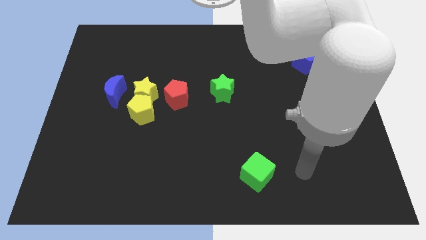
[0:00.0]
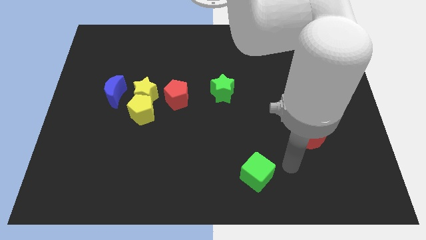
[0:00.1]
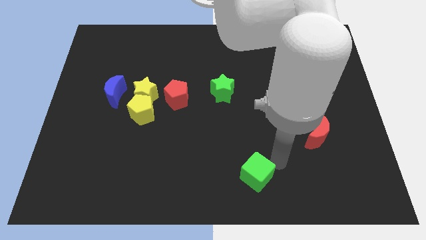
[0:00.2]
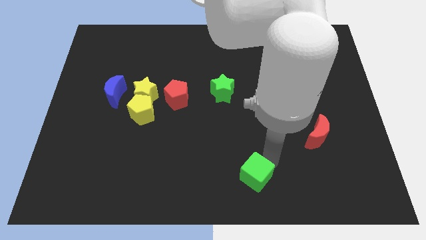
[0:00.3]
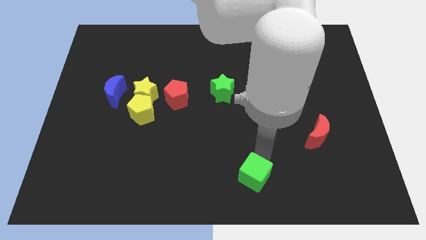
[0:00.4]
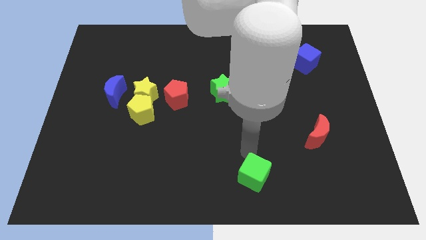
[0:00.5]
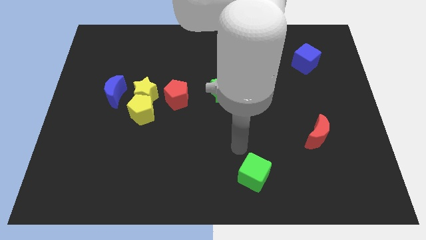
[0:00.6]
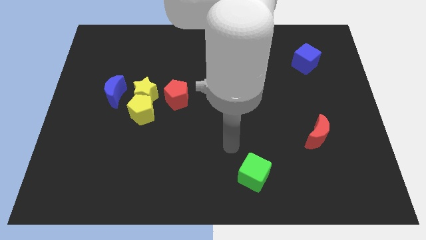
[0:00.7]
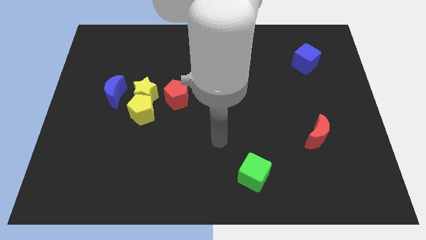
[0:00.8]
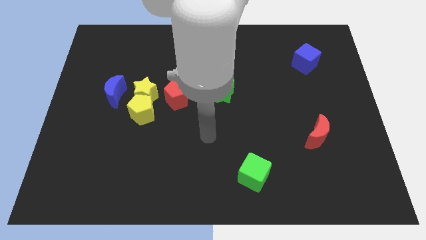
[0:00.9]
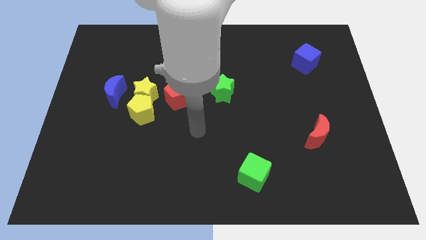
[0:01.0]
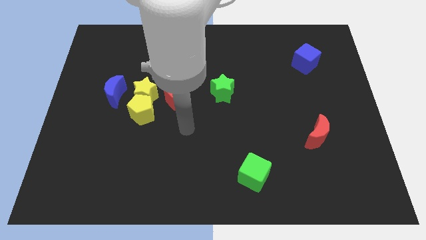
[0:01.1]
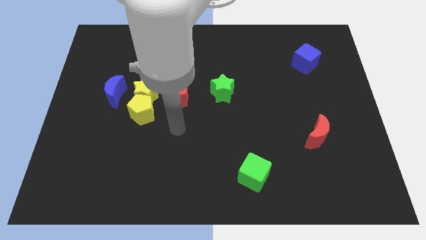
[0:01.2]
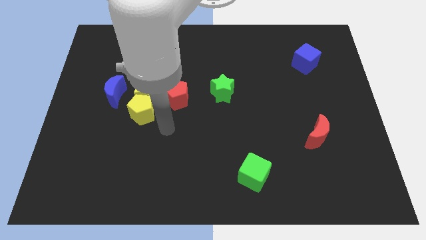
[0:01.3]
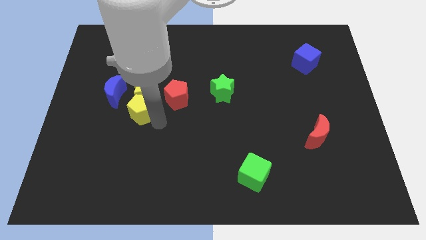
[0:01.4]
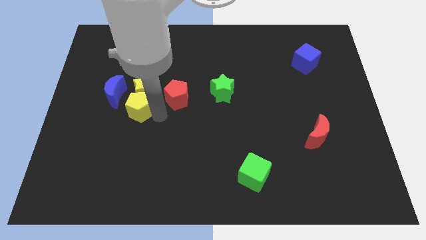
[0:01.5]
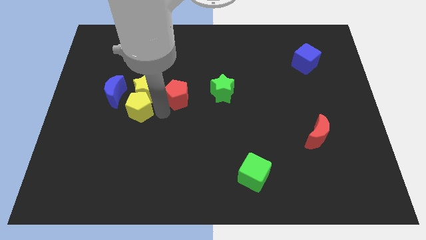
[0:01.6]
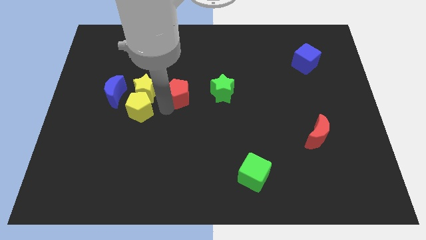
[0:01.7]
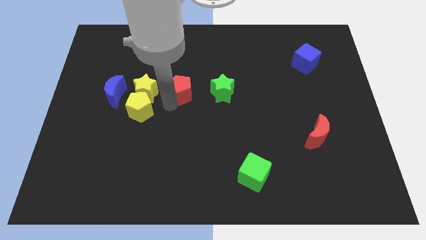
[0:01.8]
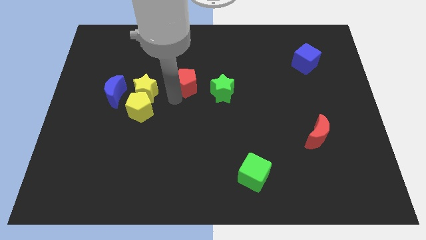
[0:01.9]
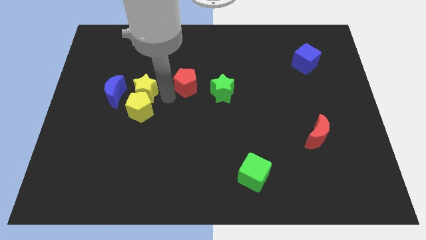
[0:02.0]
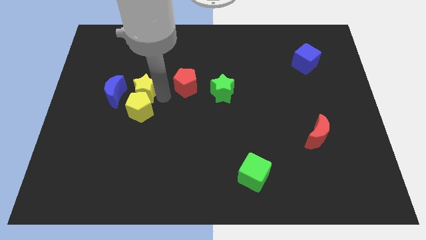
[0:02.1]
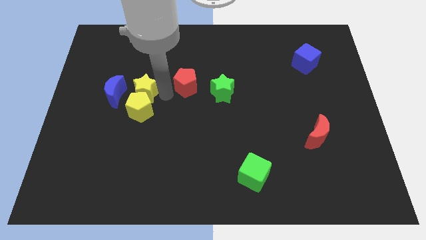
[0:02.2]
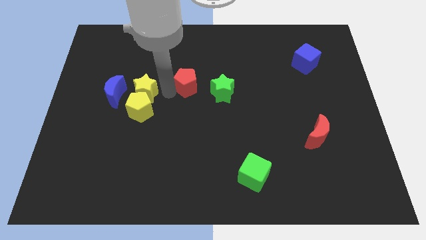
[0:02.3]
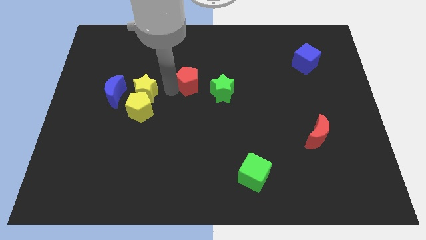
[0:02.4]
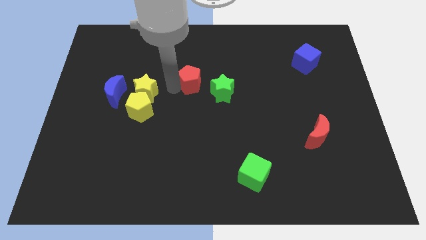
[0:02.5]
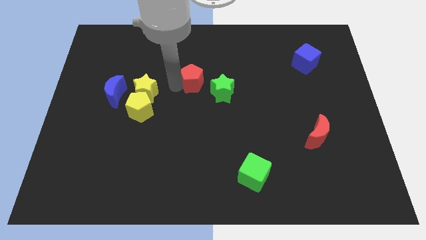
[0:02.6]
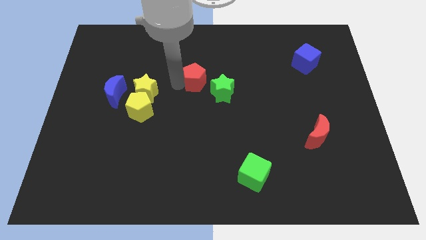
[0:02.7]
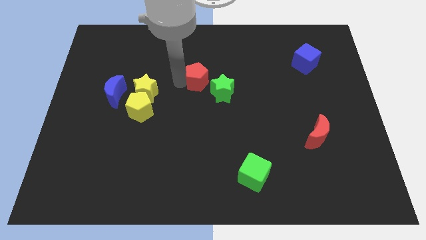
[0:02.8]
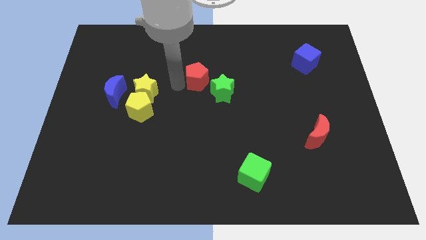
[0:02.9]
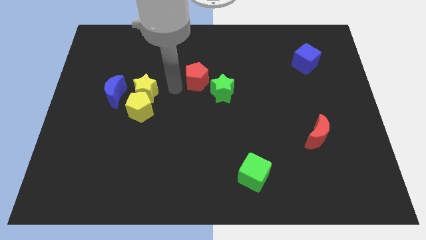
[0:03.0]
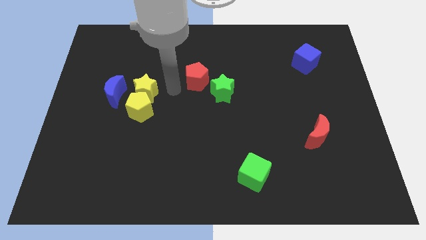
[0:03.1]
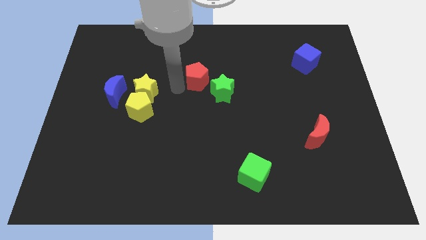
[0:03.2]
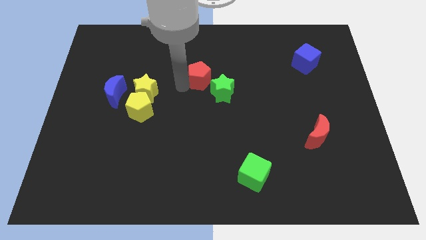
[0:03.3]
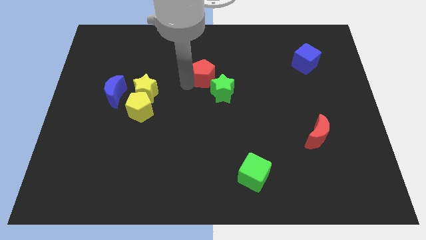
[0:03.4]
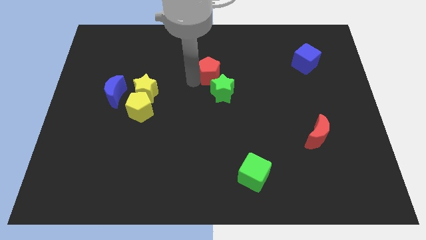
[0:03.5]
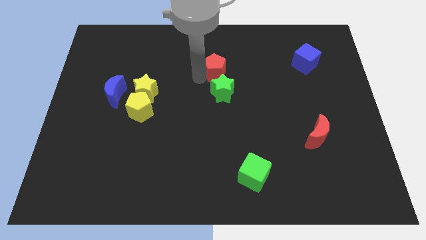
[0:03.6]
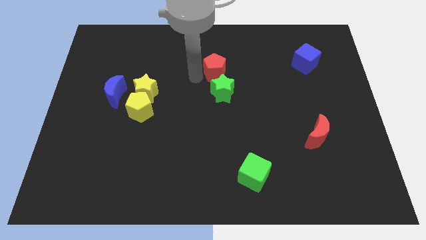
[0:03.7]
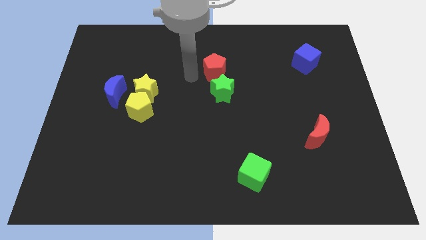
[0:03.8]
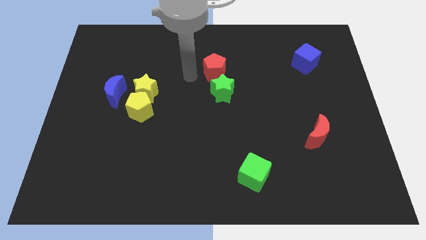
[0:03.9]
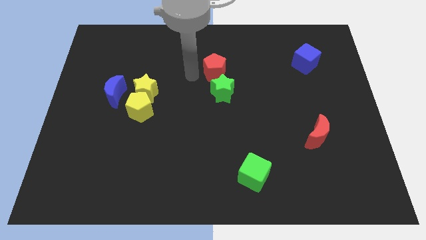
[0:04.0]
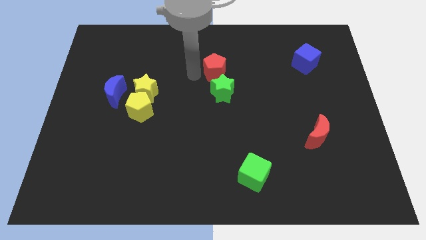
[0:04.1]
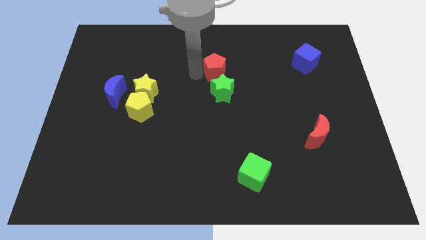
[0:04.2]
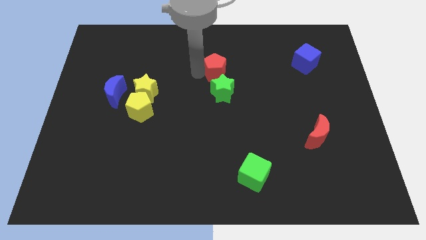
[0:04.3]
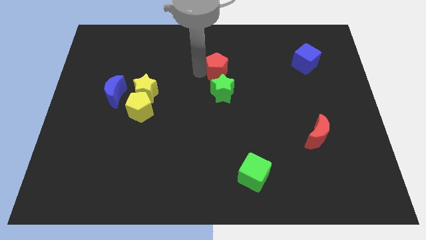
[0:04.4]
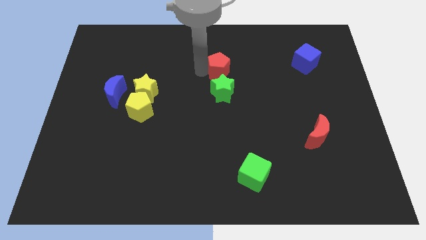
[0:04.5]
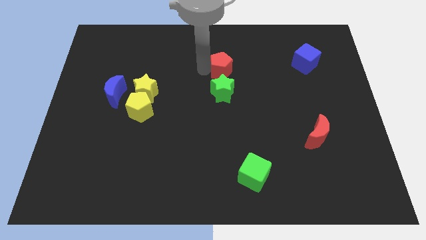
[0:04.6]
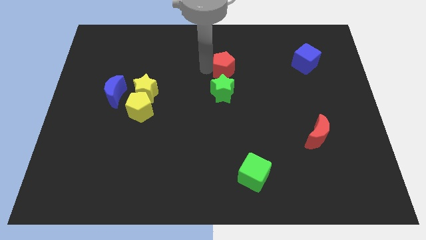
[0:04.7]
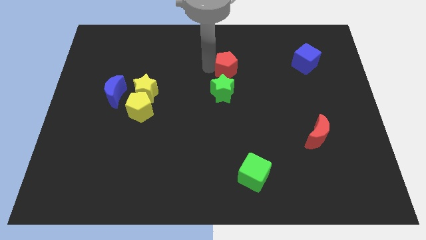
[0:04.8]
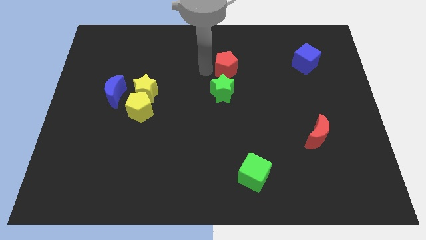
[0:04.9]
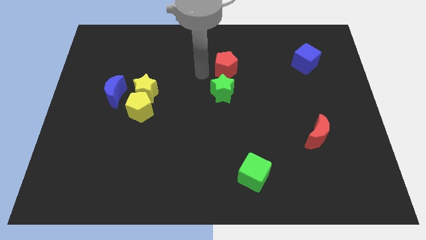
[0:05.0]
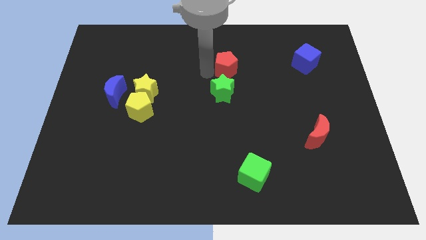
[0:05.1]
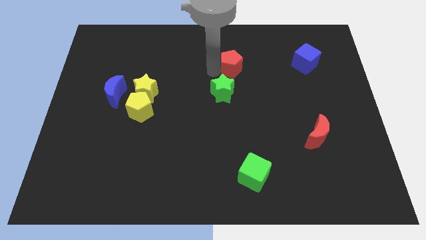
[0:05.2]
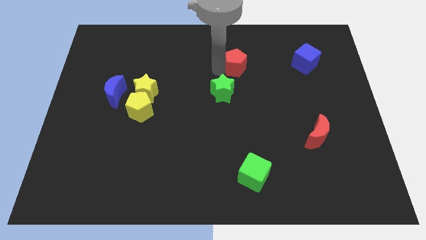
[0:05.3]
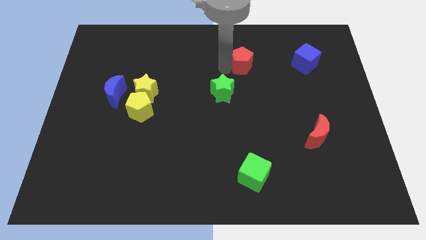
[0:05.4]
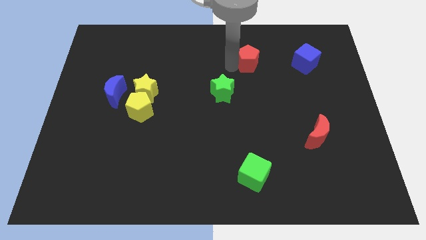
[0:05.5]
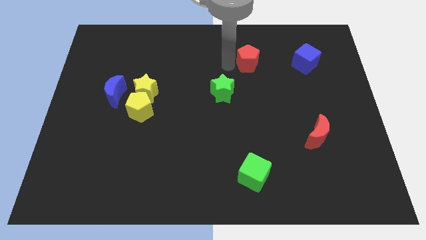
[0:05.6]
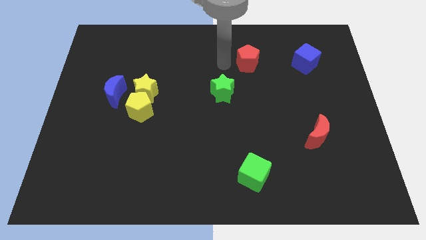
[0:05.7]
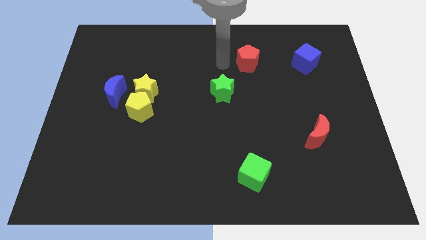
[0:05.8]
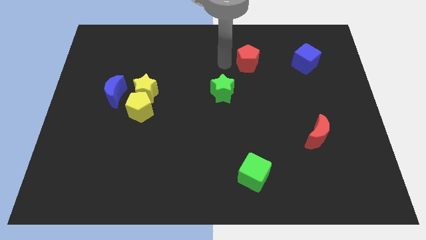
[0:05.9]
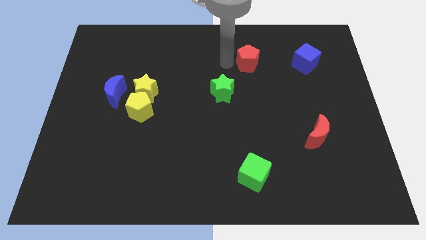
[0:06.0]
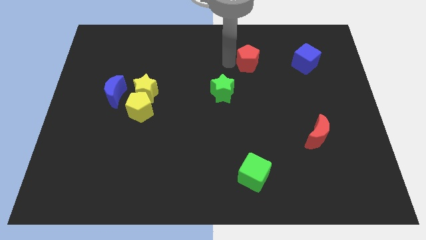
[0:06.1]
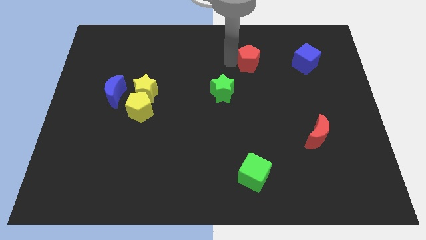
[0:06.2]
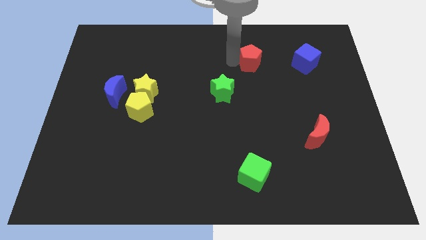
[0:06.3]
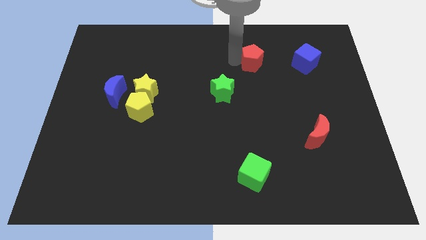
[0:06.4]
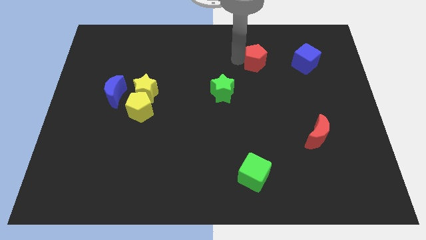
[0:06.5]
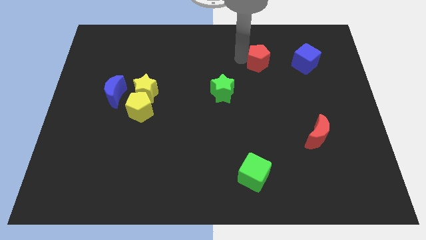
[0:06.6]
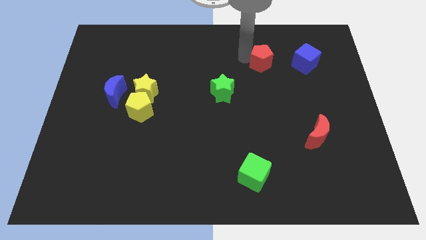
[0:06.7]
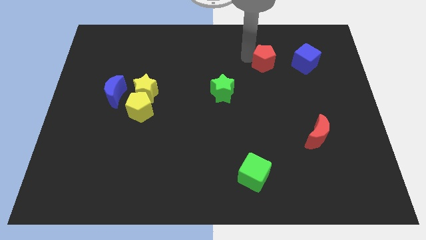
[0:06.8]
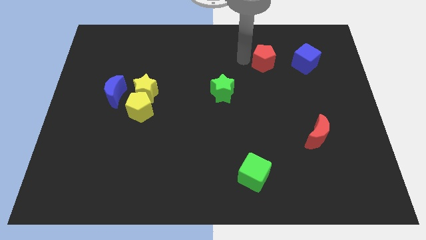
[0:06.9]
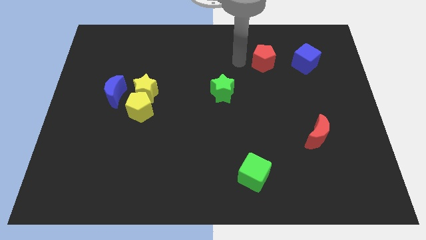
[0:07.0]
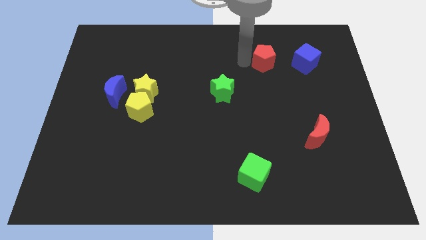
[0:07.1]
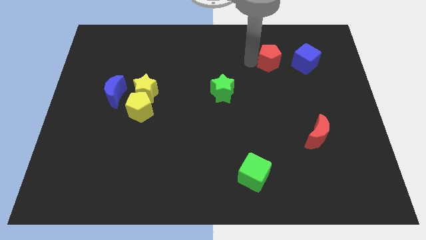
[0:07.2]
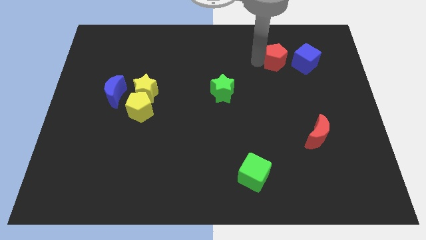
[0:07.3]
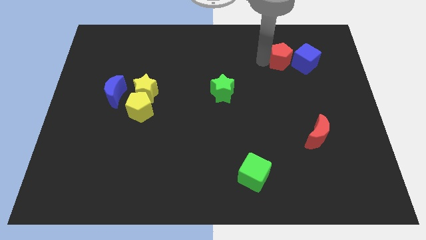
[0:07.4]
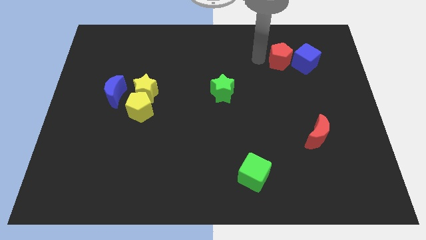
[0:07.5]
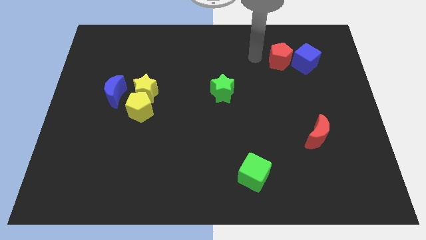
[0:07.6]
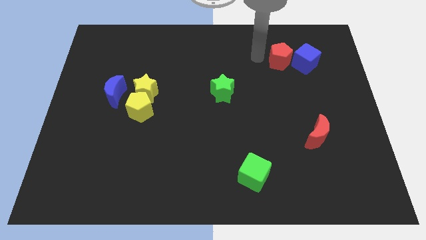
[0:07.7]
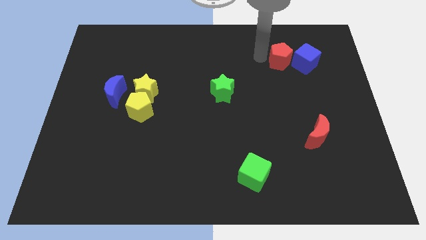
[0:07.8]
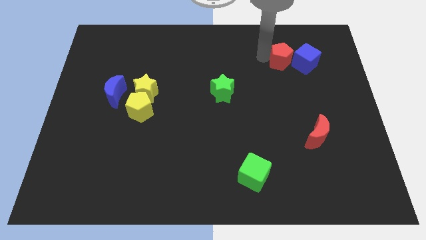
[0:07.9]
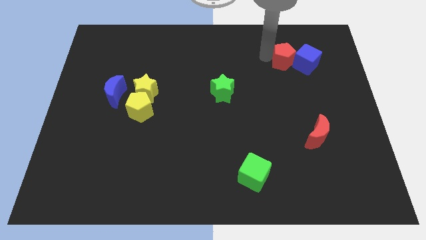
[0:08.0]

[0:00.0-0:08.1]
move the red pentagon to the blue cube
